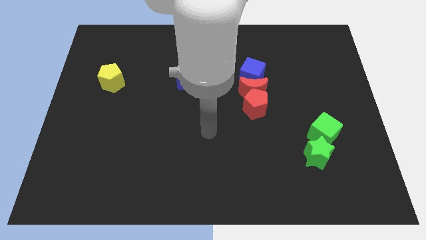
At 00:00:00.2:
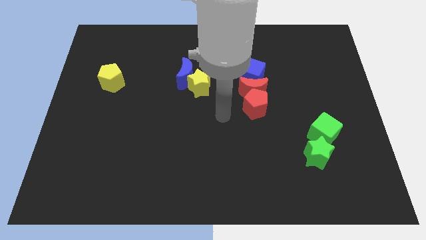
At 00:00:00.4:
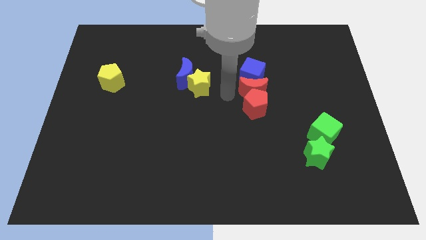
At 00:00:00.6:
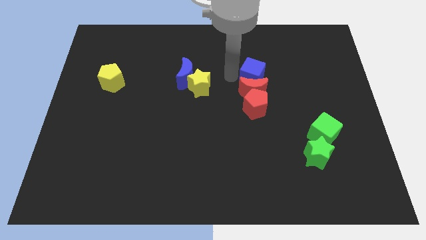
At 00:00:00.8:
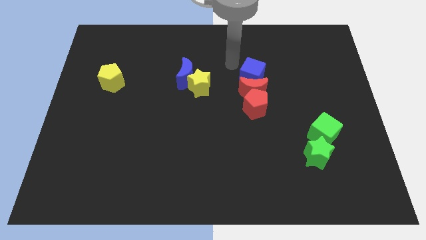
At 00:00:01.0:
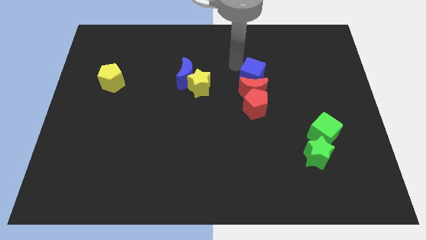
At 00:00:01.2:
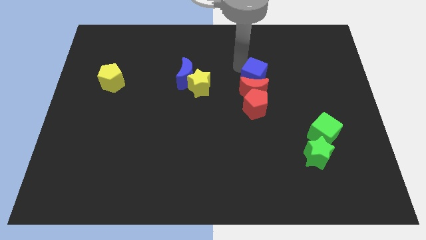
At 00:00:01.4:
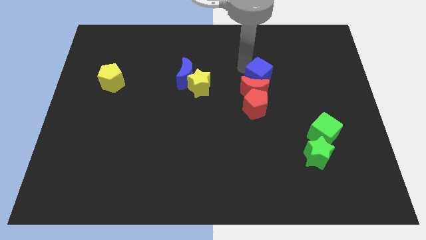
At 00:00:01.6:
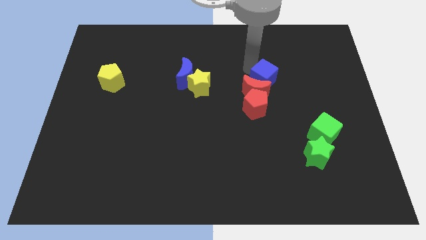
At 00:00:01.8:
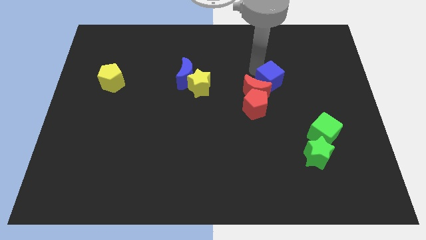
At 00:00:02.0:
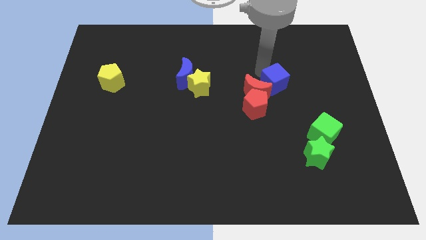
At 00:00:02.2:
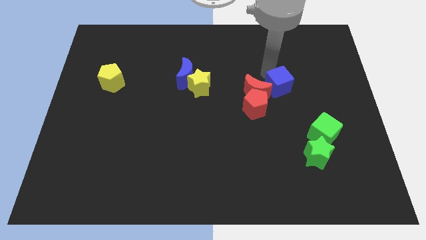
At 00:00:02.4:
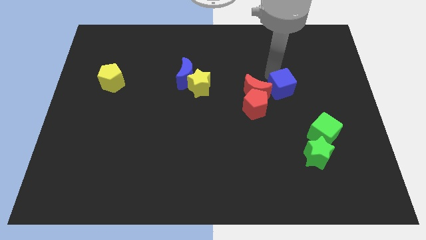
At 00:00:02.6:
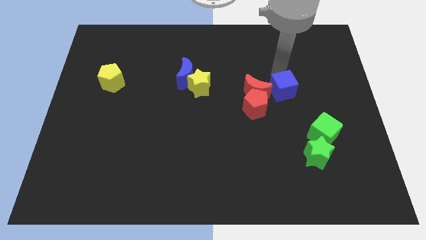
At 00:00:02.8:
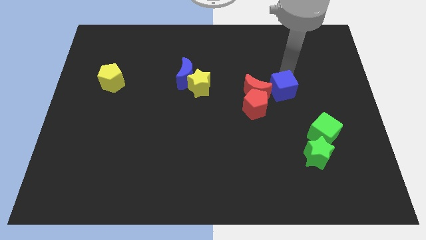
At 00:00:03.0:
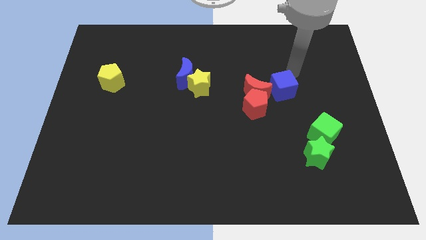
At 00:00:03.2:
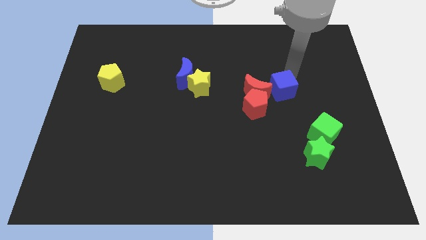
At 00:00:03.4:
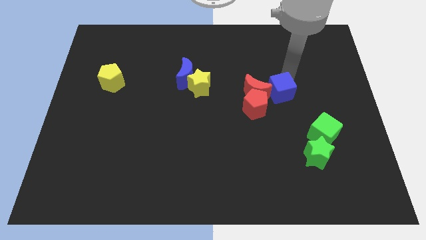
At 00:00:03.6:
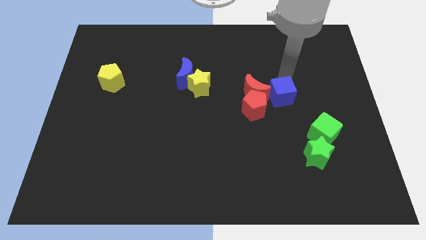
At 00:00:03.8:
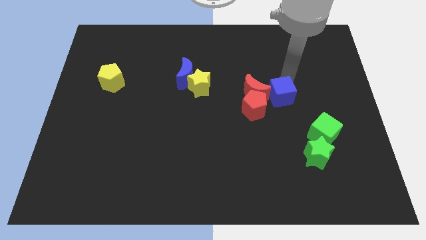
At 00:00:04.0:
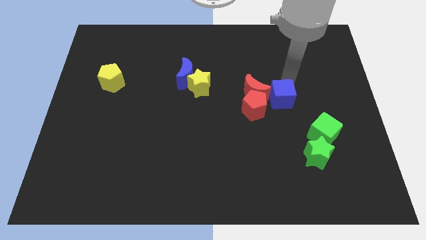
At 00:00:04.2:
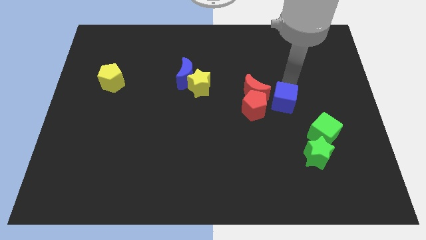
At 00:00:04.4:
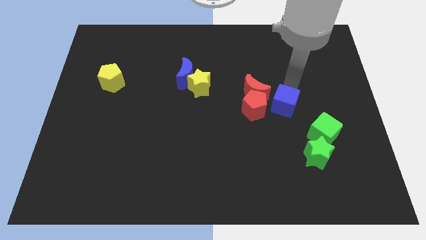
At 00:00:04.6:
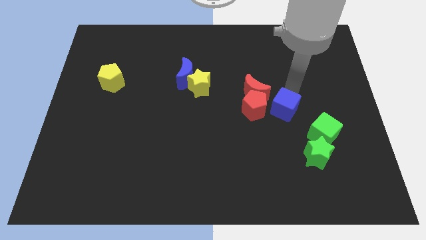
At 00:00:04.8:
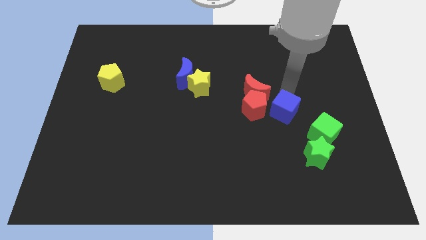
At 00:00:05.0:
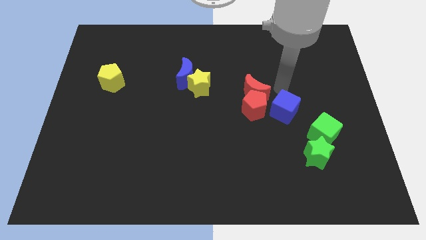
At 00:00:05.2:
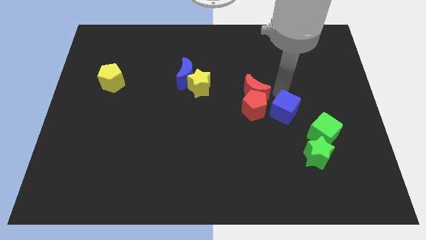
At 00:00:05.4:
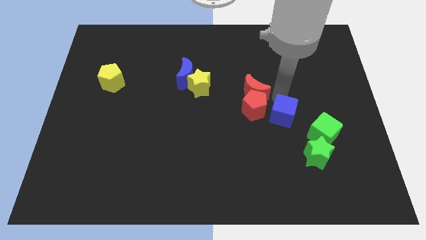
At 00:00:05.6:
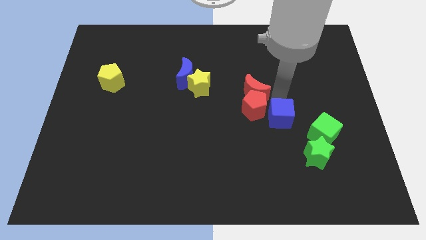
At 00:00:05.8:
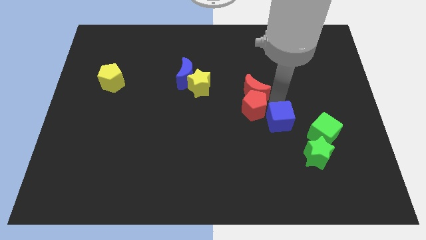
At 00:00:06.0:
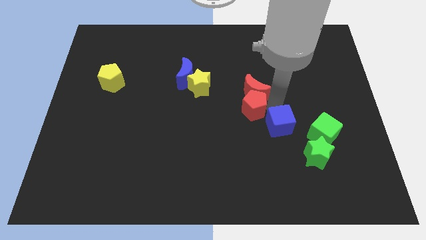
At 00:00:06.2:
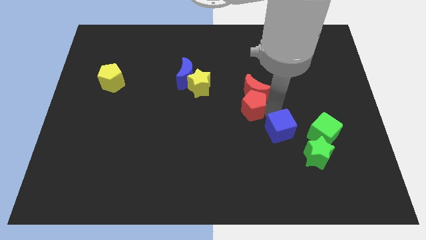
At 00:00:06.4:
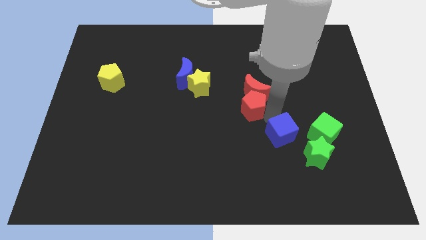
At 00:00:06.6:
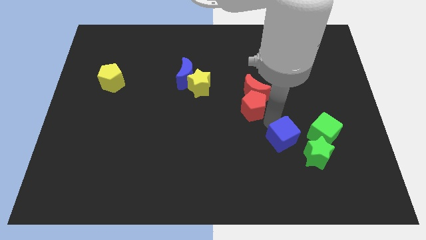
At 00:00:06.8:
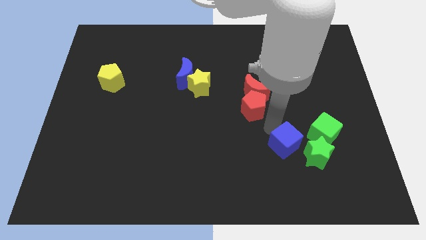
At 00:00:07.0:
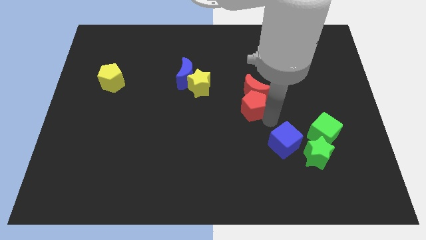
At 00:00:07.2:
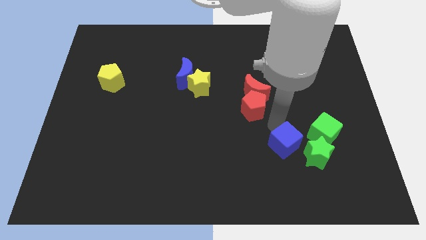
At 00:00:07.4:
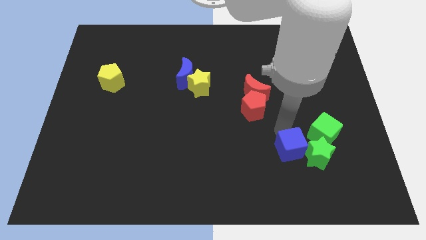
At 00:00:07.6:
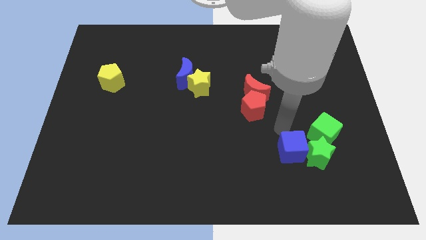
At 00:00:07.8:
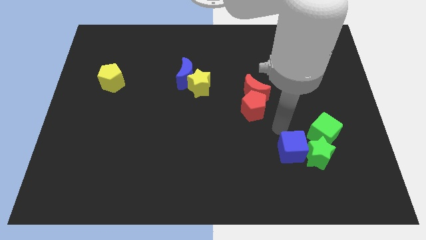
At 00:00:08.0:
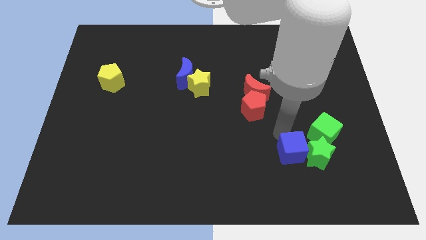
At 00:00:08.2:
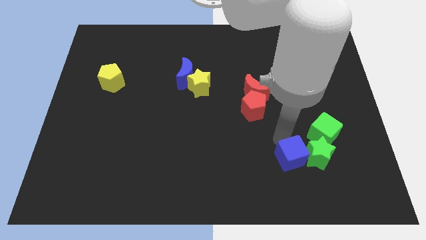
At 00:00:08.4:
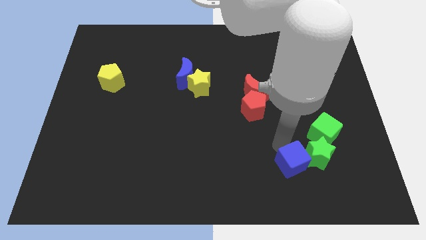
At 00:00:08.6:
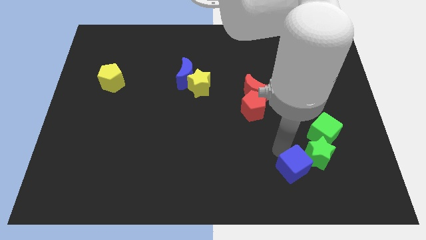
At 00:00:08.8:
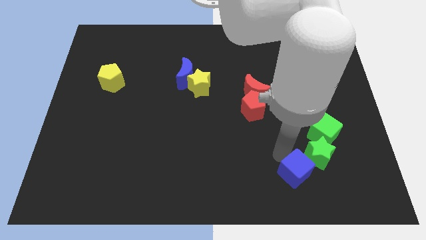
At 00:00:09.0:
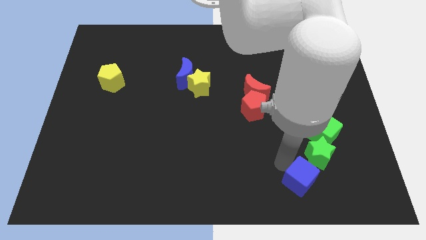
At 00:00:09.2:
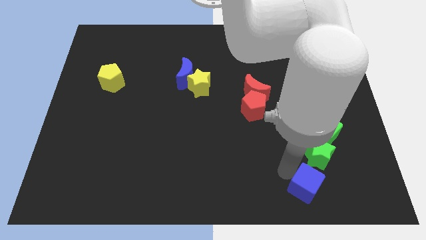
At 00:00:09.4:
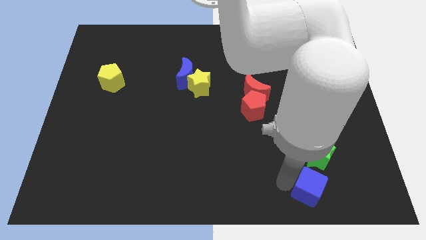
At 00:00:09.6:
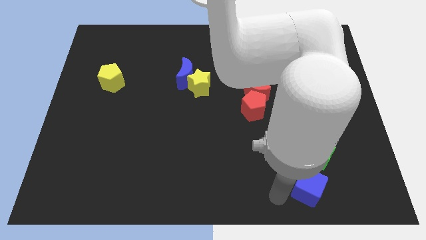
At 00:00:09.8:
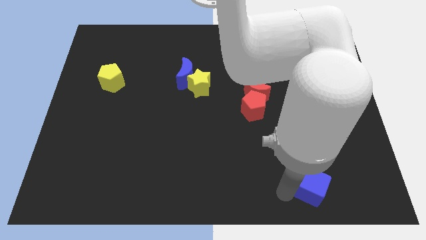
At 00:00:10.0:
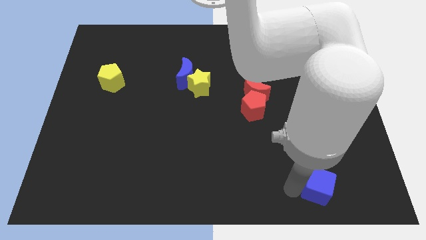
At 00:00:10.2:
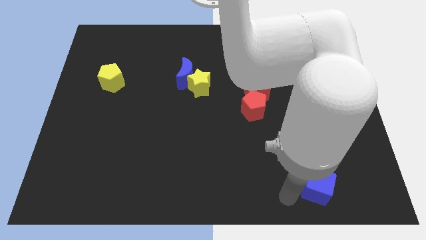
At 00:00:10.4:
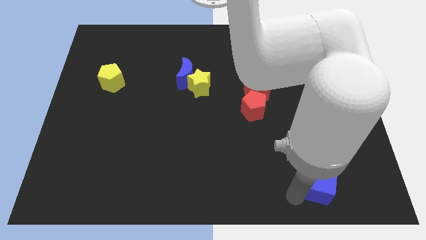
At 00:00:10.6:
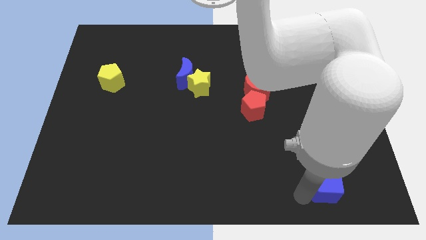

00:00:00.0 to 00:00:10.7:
move the blue cube to the bottom right of the green star

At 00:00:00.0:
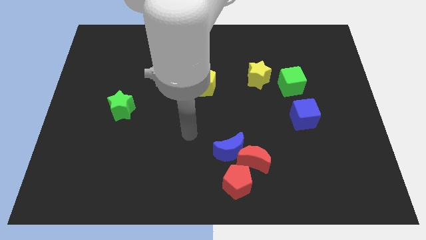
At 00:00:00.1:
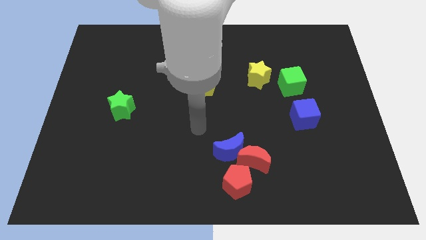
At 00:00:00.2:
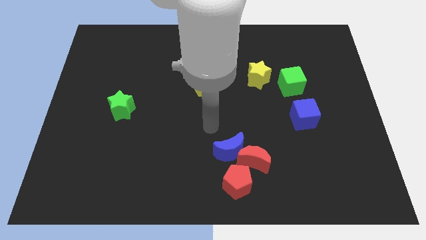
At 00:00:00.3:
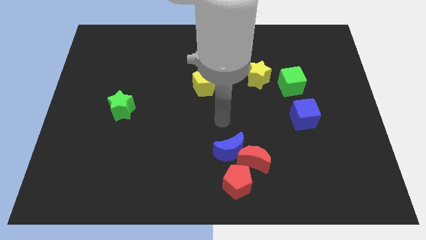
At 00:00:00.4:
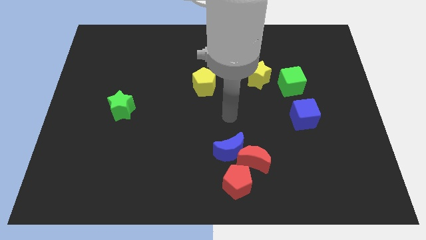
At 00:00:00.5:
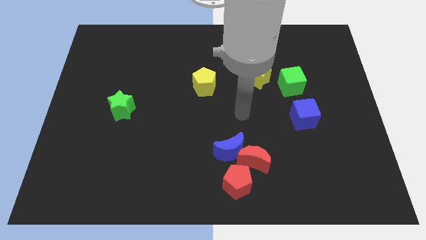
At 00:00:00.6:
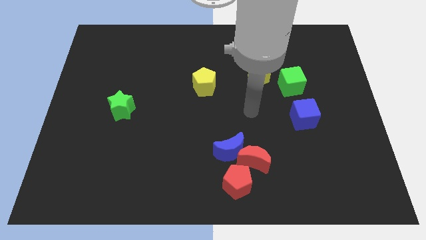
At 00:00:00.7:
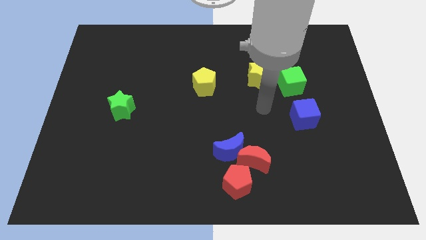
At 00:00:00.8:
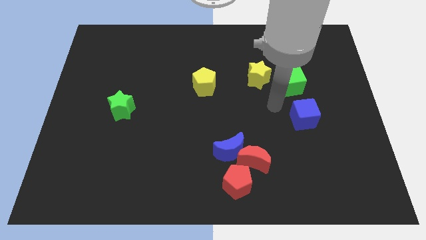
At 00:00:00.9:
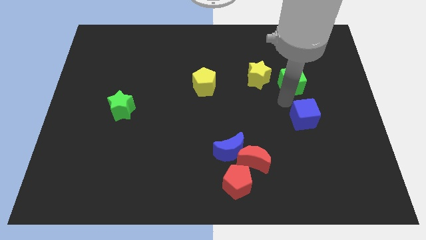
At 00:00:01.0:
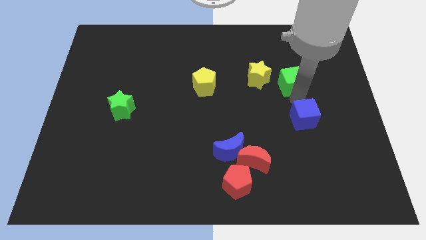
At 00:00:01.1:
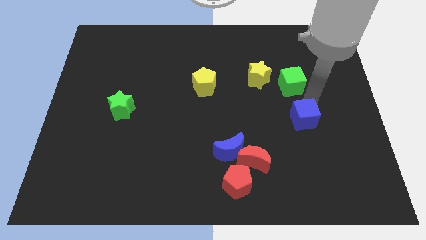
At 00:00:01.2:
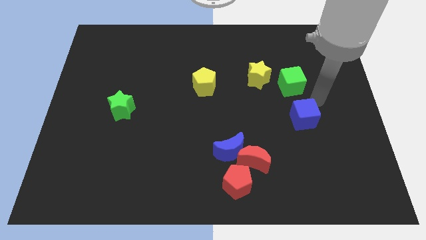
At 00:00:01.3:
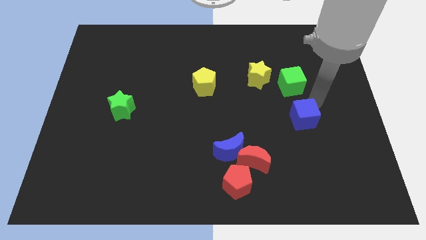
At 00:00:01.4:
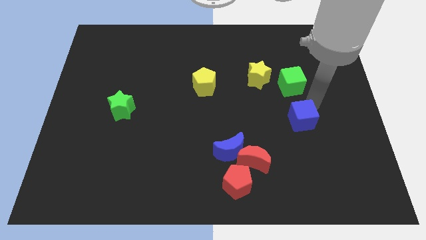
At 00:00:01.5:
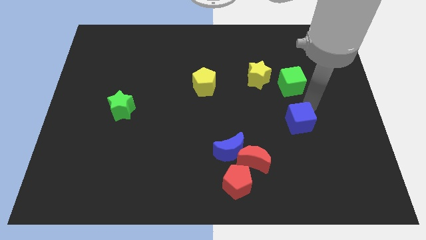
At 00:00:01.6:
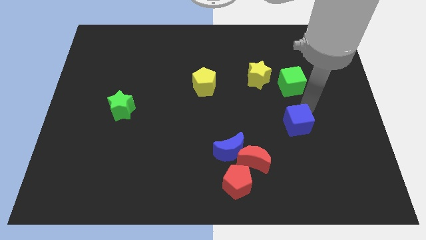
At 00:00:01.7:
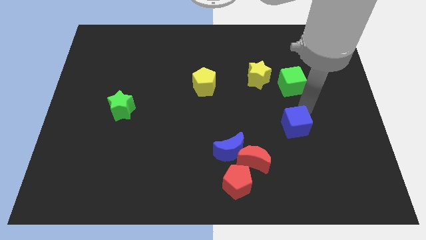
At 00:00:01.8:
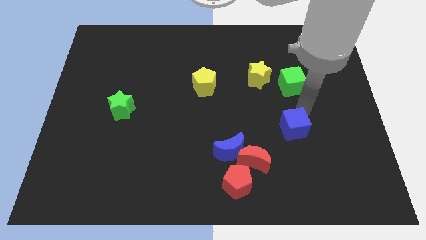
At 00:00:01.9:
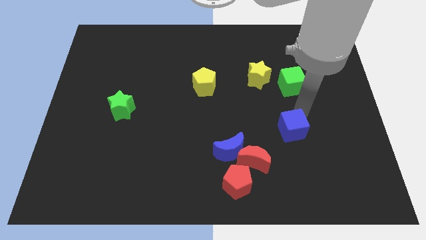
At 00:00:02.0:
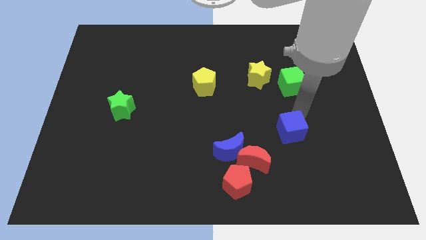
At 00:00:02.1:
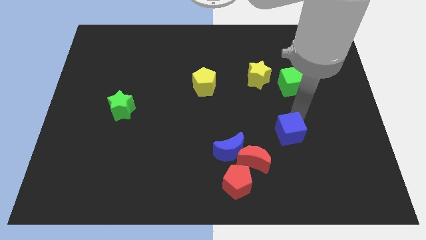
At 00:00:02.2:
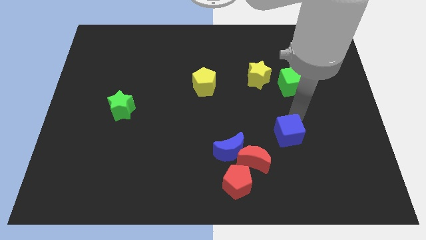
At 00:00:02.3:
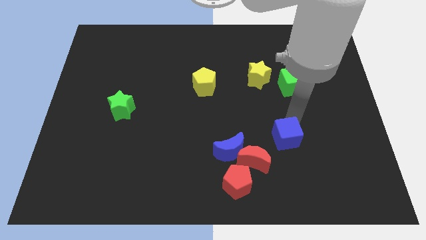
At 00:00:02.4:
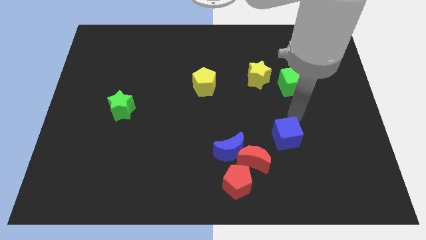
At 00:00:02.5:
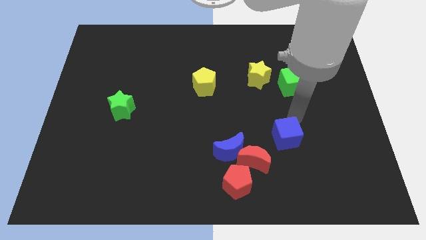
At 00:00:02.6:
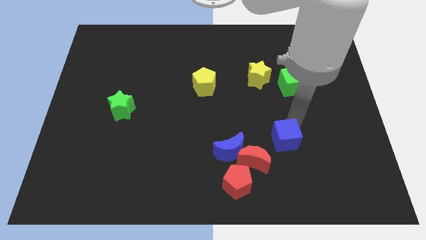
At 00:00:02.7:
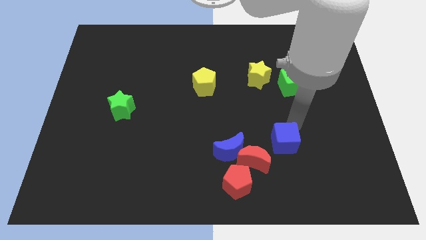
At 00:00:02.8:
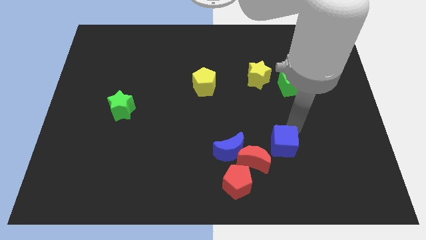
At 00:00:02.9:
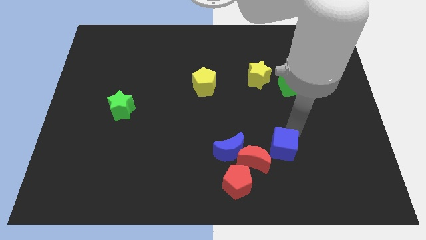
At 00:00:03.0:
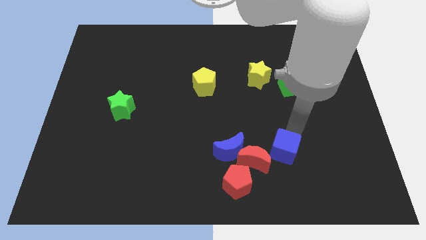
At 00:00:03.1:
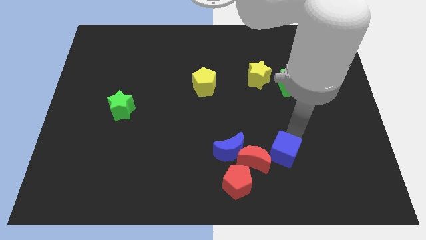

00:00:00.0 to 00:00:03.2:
slide the blue cube to the top right of the red pentagon
